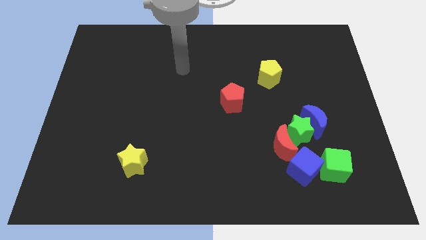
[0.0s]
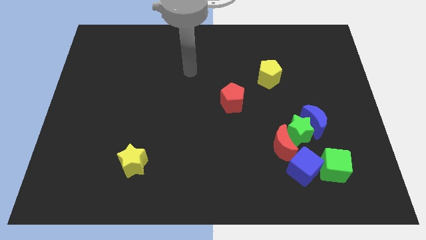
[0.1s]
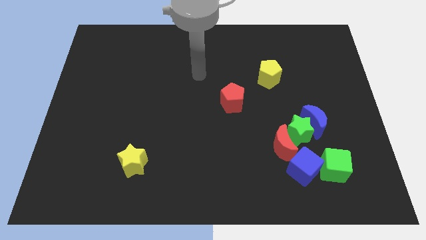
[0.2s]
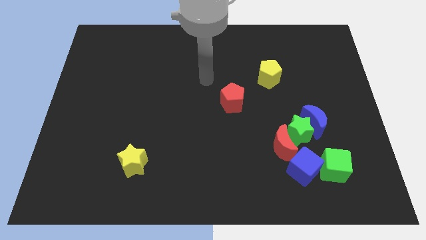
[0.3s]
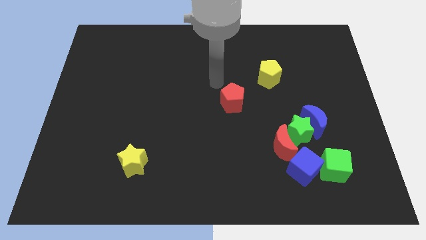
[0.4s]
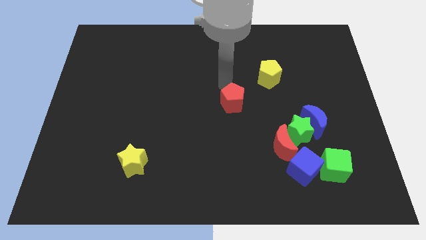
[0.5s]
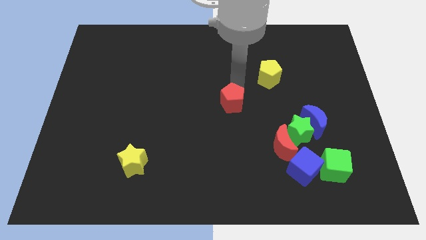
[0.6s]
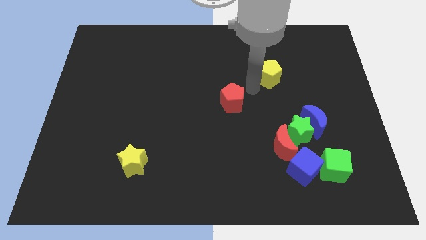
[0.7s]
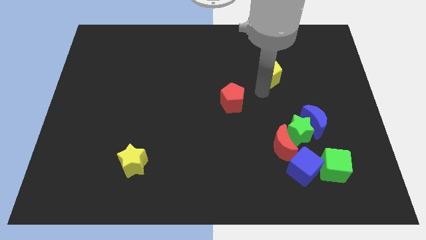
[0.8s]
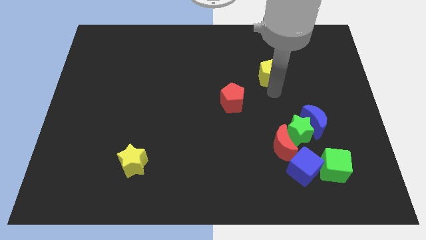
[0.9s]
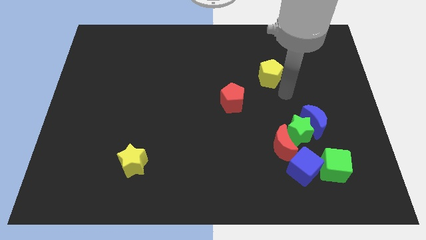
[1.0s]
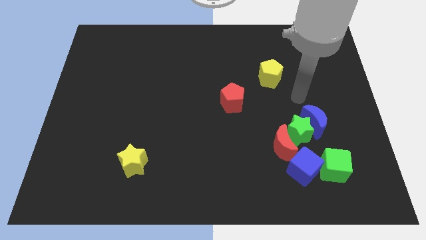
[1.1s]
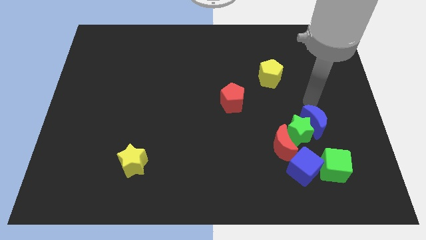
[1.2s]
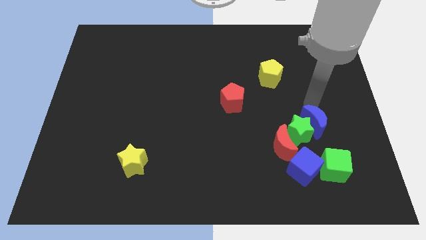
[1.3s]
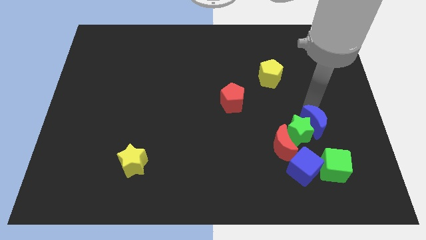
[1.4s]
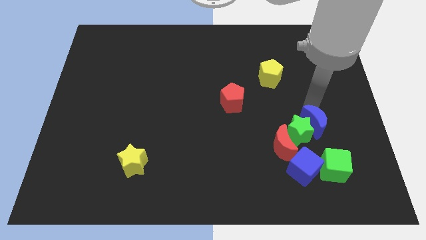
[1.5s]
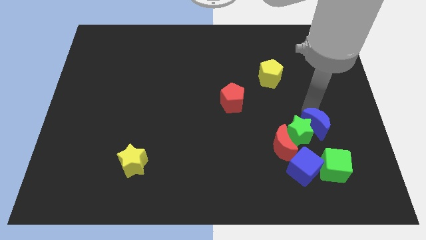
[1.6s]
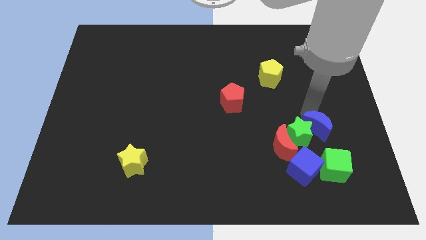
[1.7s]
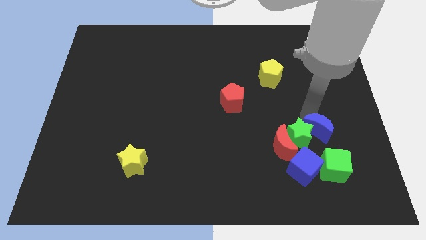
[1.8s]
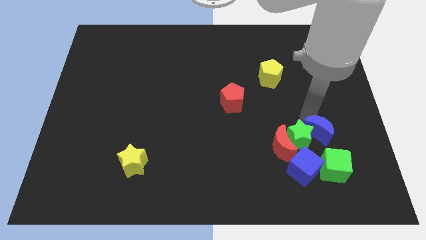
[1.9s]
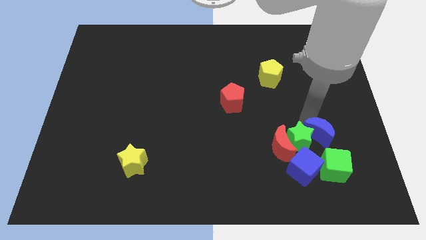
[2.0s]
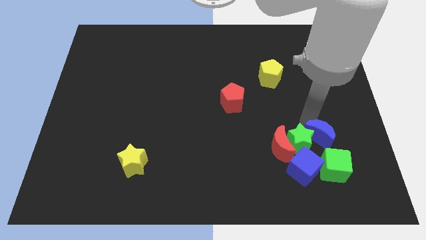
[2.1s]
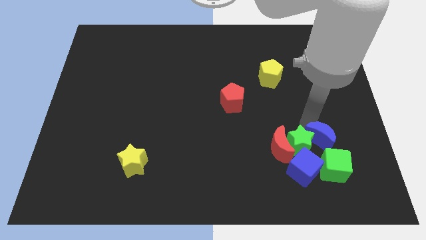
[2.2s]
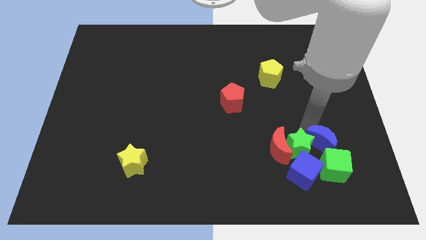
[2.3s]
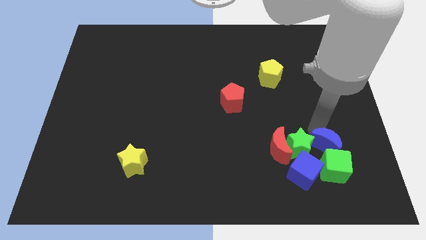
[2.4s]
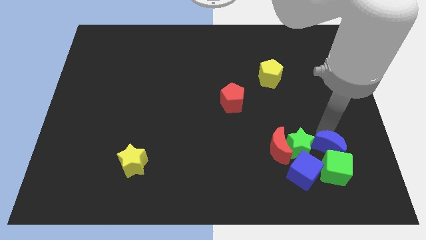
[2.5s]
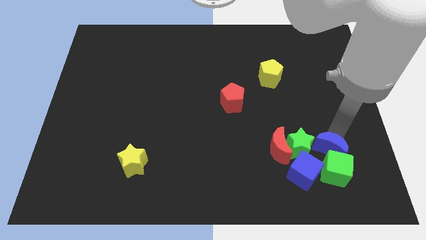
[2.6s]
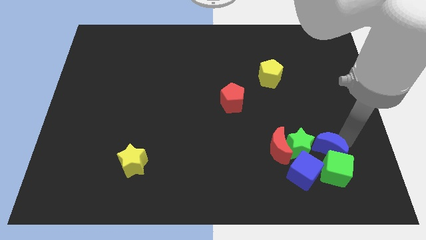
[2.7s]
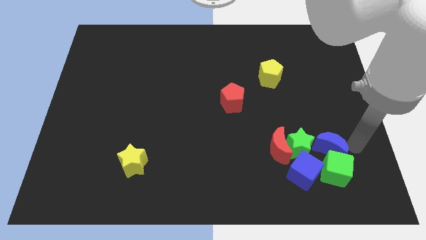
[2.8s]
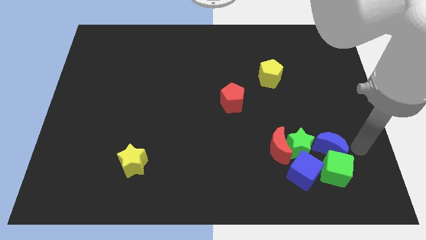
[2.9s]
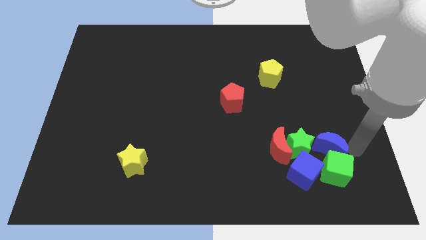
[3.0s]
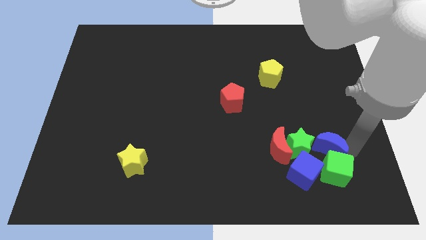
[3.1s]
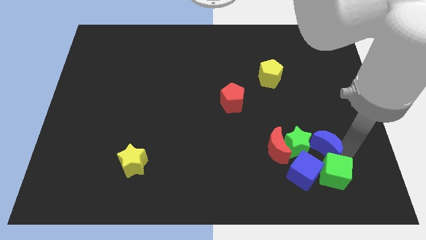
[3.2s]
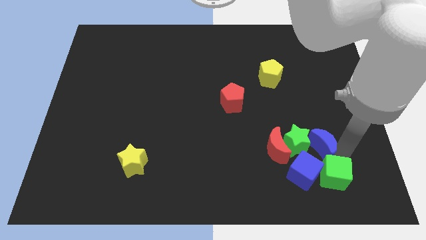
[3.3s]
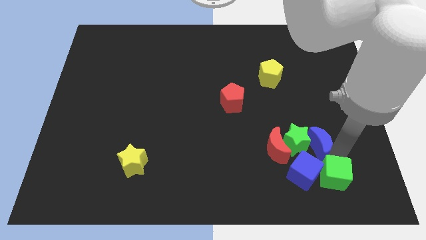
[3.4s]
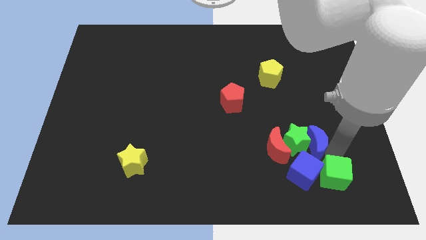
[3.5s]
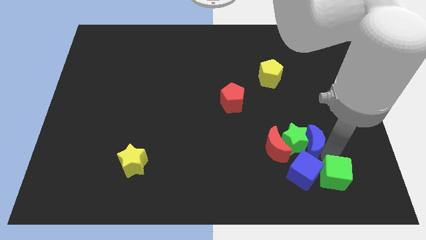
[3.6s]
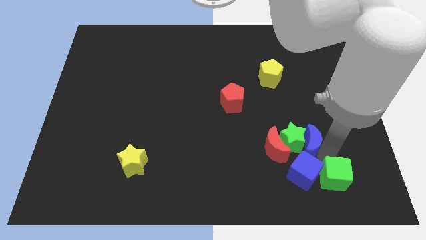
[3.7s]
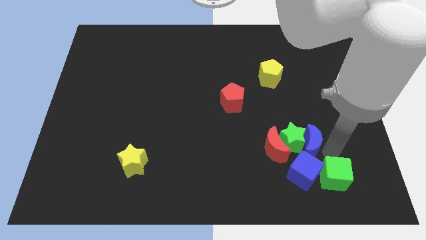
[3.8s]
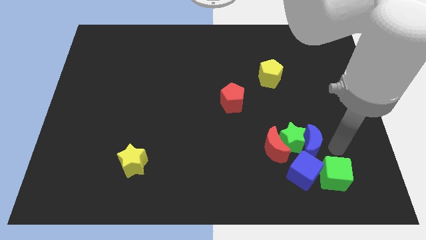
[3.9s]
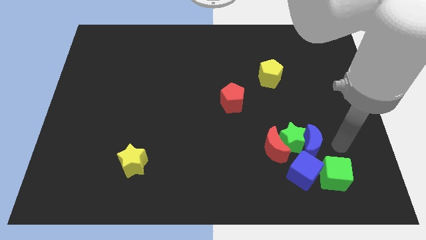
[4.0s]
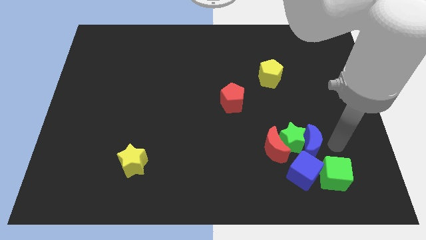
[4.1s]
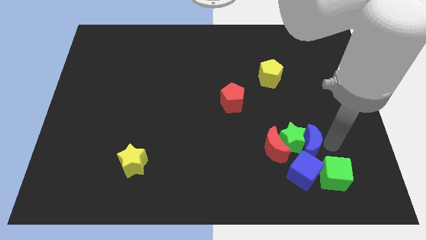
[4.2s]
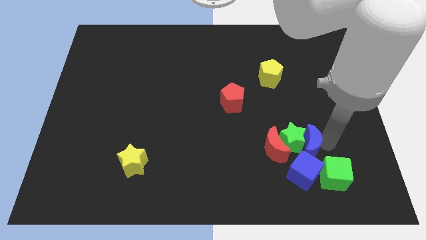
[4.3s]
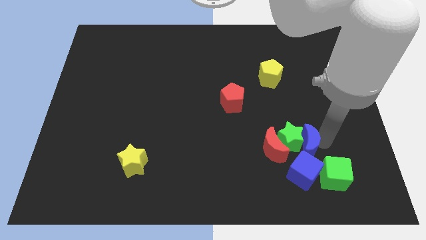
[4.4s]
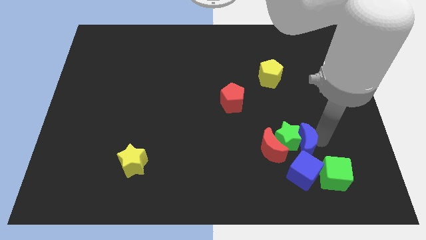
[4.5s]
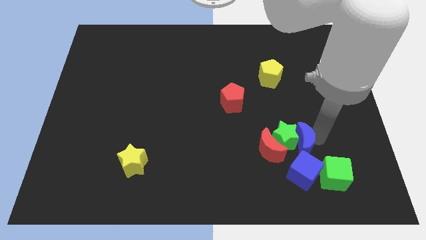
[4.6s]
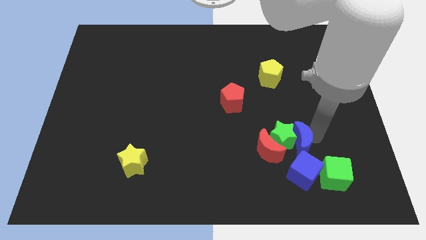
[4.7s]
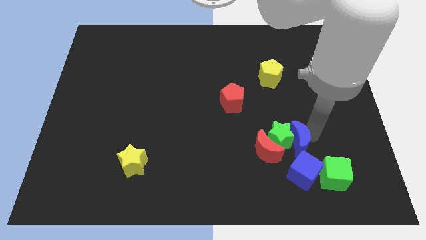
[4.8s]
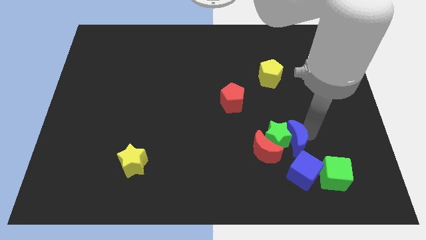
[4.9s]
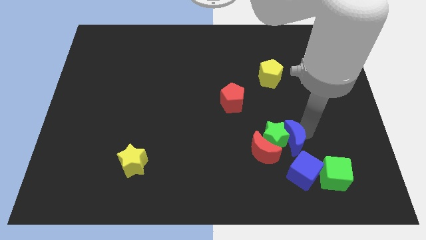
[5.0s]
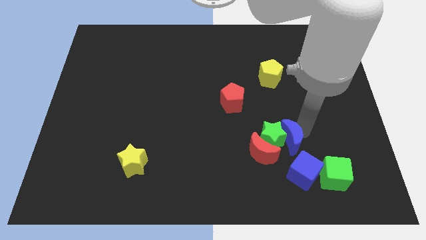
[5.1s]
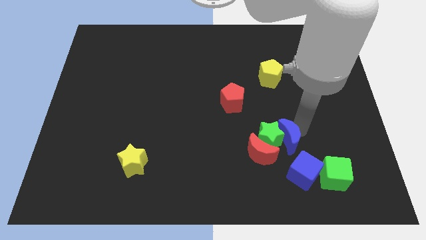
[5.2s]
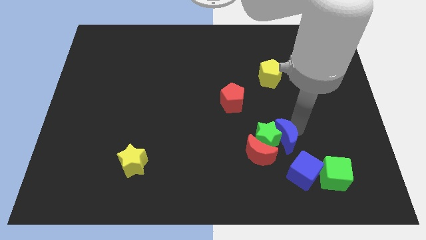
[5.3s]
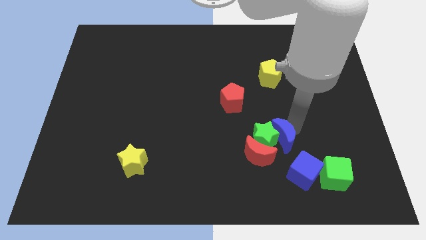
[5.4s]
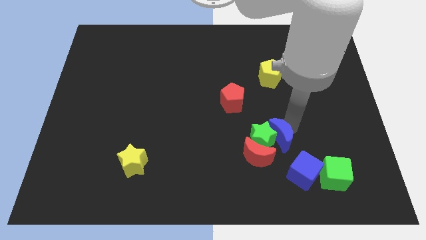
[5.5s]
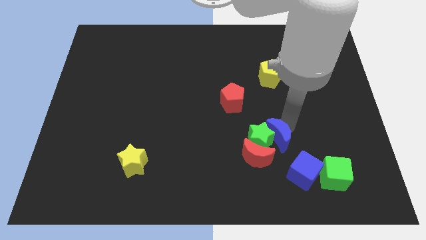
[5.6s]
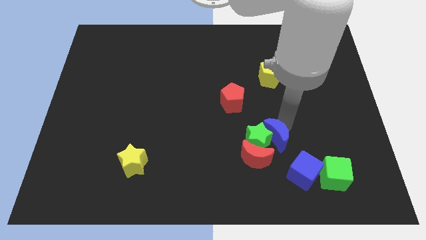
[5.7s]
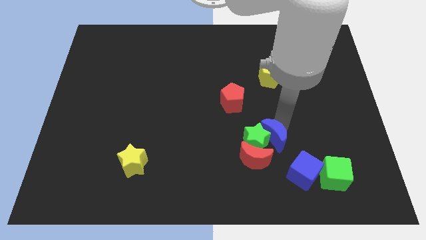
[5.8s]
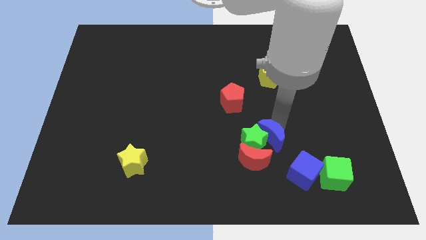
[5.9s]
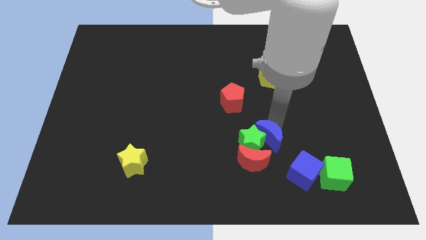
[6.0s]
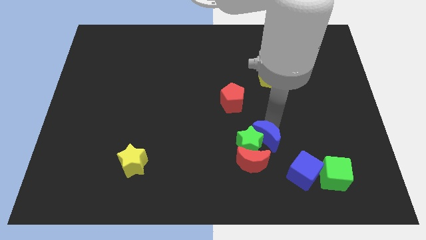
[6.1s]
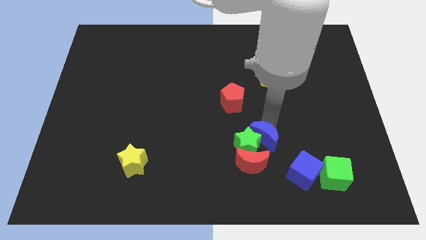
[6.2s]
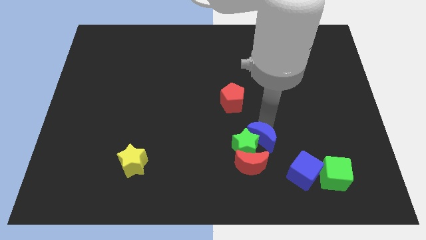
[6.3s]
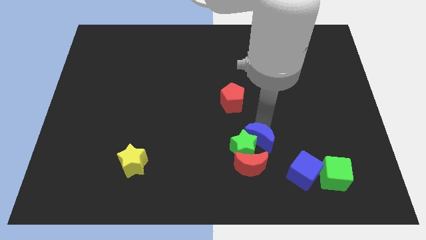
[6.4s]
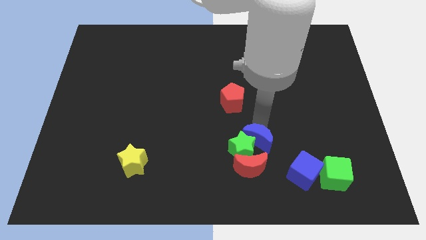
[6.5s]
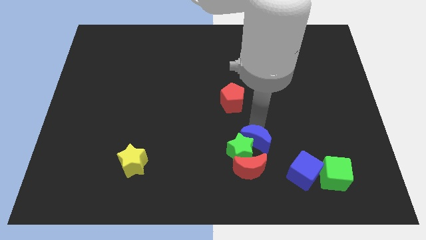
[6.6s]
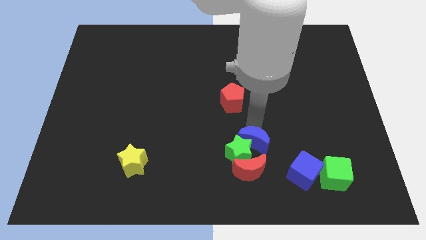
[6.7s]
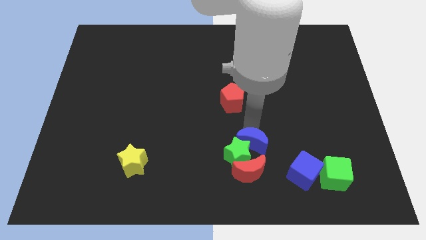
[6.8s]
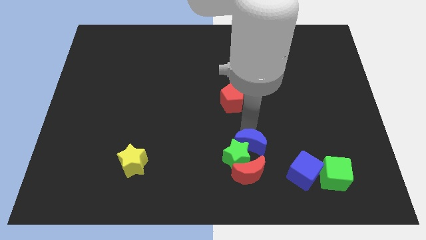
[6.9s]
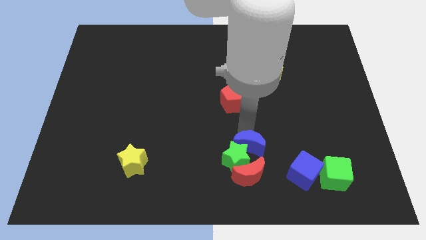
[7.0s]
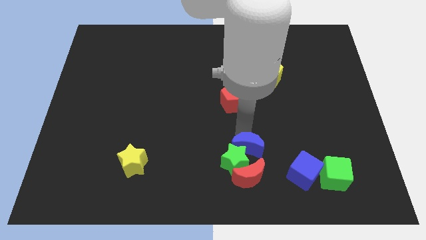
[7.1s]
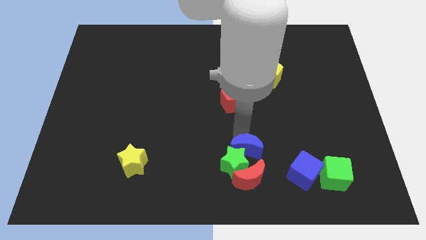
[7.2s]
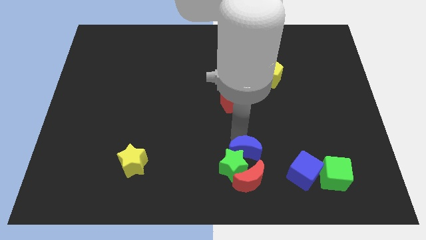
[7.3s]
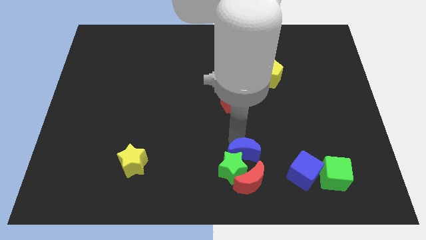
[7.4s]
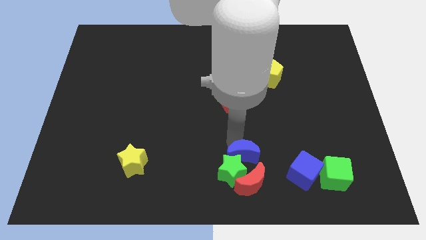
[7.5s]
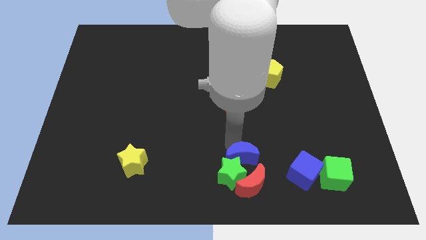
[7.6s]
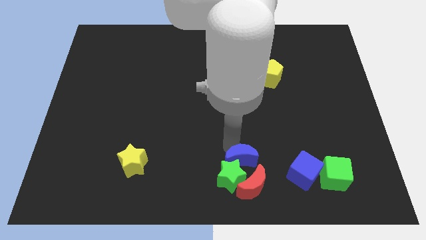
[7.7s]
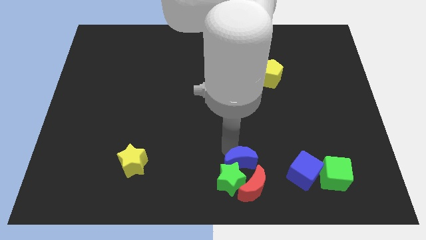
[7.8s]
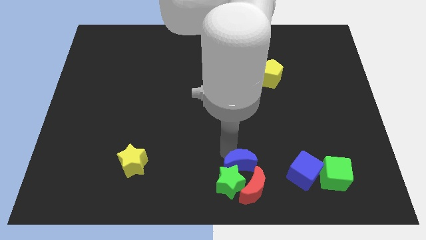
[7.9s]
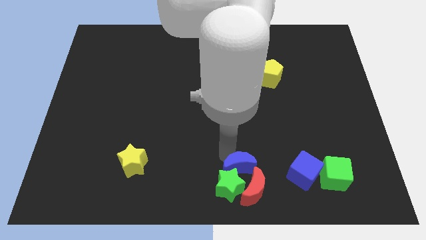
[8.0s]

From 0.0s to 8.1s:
put the blue moon close to the red moon
